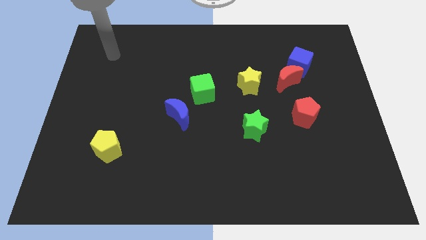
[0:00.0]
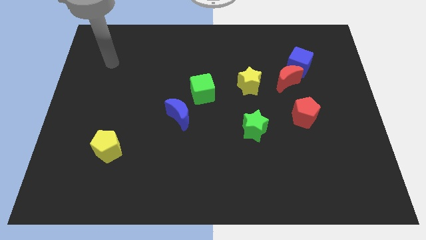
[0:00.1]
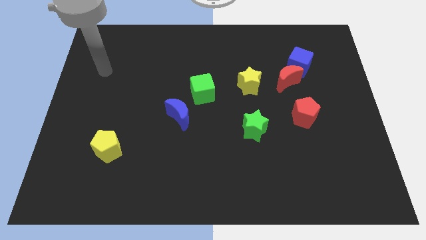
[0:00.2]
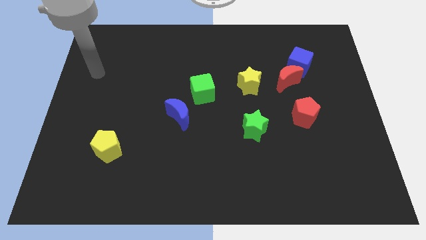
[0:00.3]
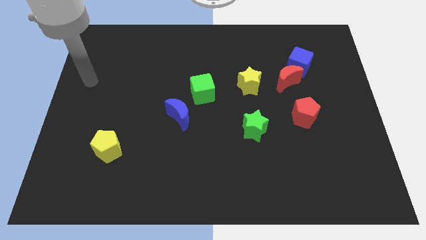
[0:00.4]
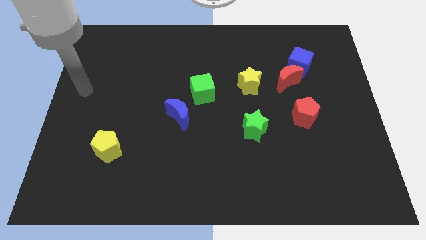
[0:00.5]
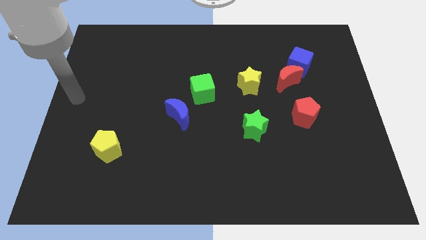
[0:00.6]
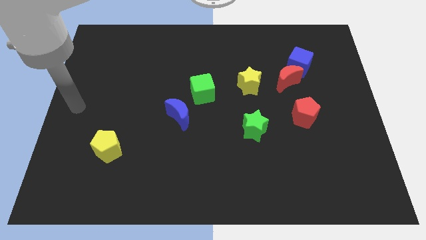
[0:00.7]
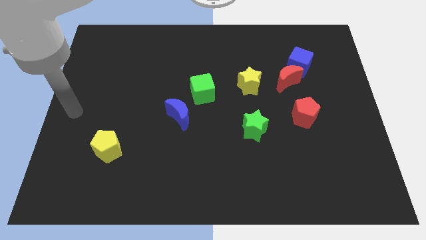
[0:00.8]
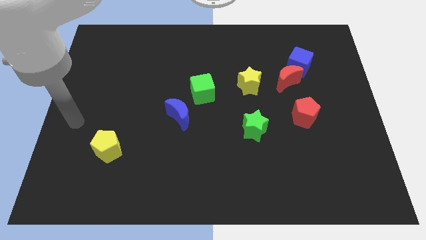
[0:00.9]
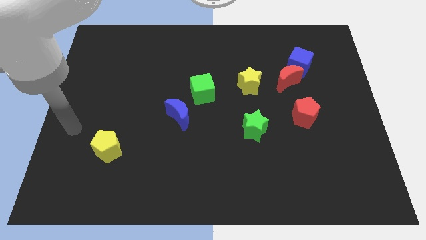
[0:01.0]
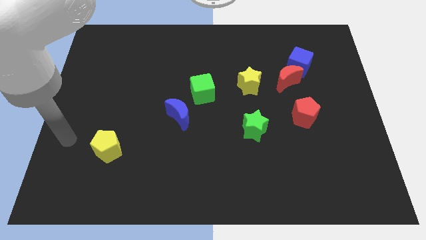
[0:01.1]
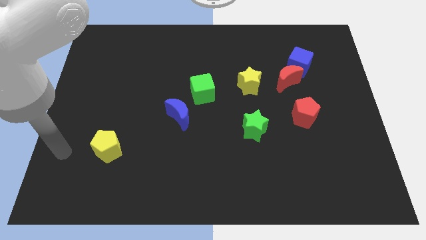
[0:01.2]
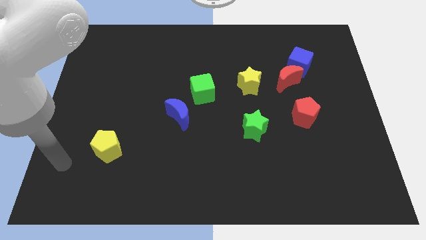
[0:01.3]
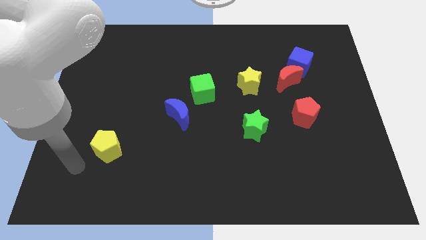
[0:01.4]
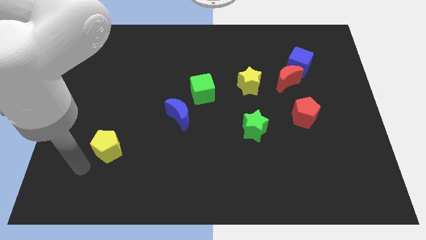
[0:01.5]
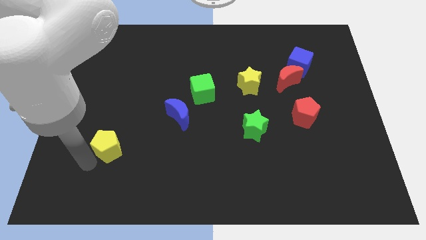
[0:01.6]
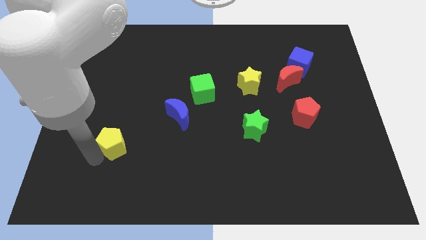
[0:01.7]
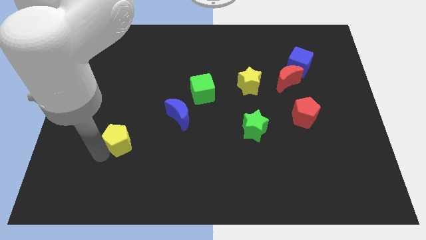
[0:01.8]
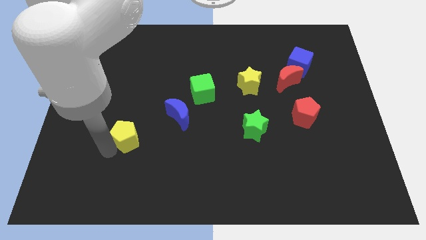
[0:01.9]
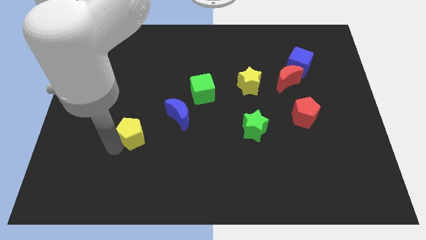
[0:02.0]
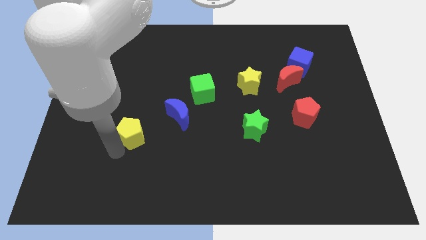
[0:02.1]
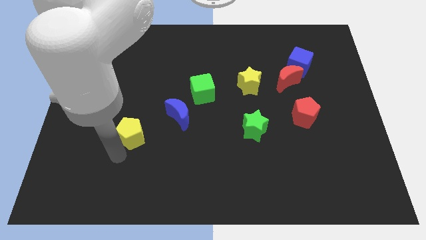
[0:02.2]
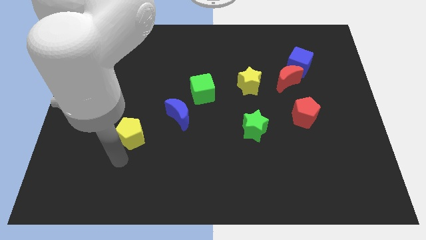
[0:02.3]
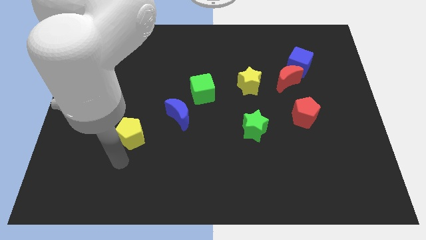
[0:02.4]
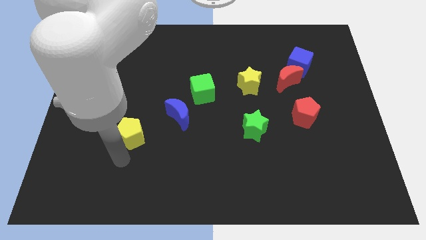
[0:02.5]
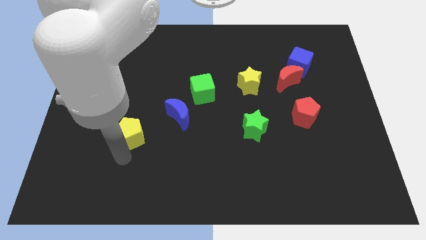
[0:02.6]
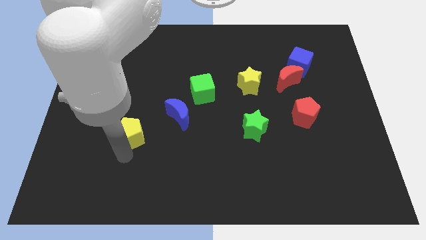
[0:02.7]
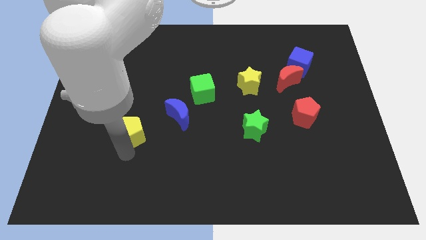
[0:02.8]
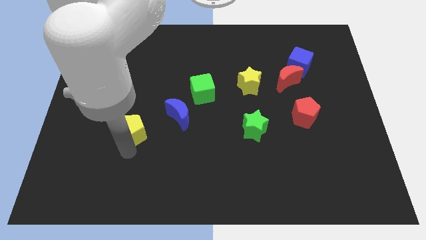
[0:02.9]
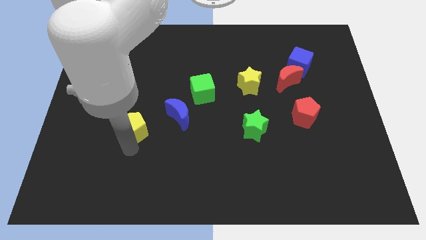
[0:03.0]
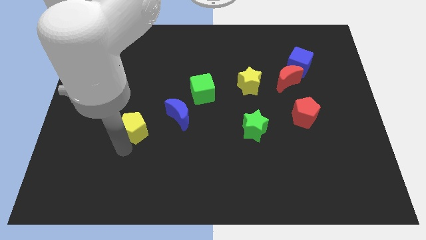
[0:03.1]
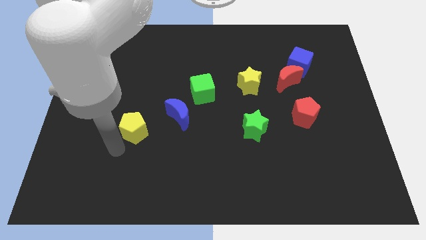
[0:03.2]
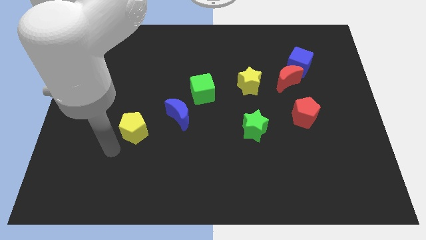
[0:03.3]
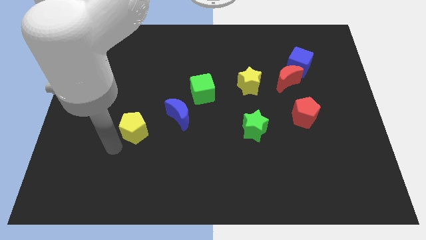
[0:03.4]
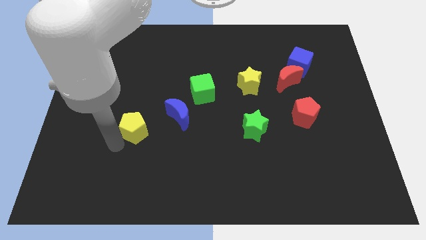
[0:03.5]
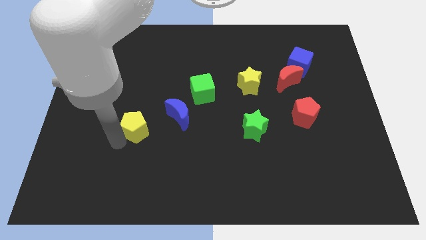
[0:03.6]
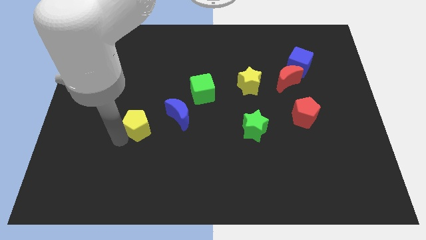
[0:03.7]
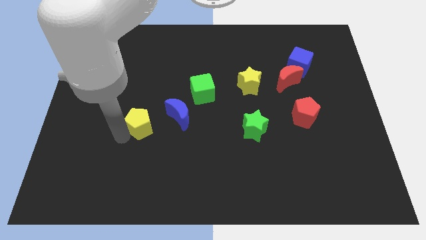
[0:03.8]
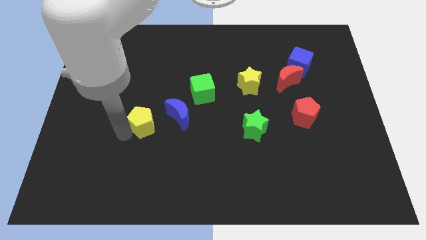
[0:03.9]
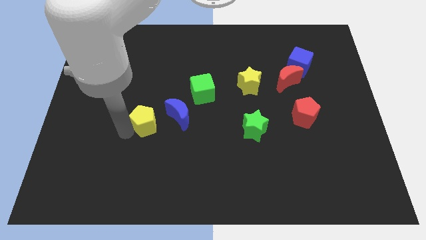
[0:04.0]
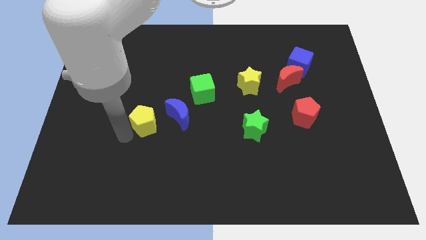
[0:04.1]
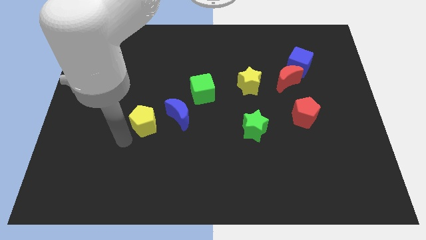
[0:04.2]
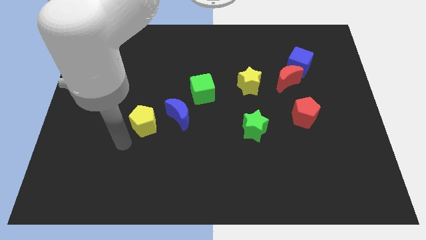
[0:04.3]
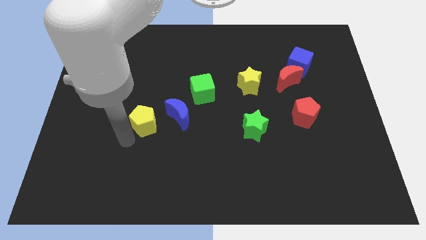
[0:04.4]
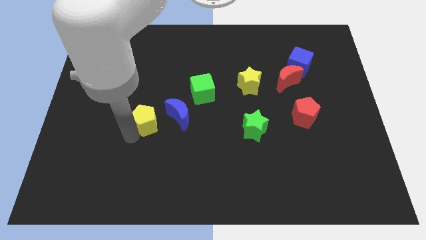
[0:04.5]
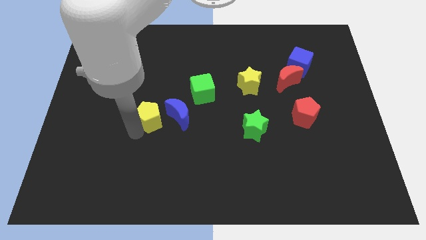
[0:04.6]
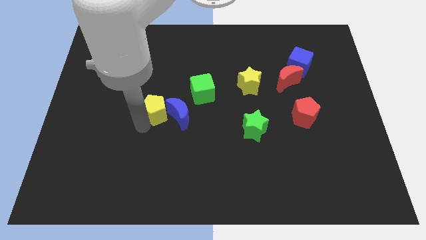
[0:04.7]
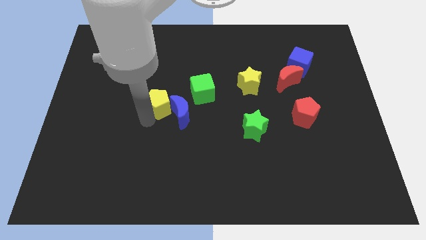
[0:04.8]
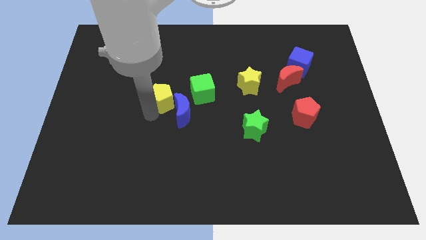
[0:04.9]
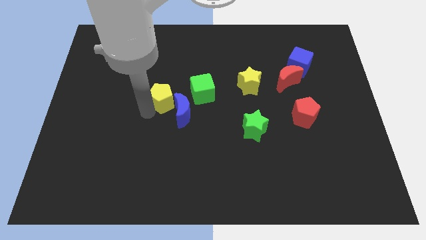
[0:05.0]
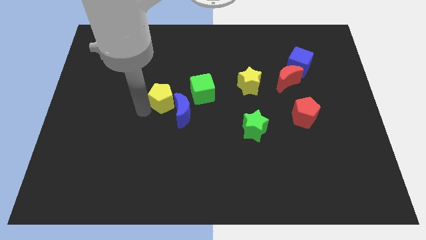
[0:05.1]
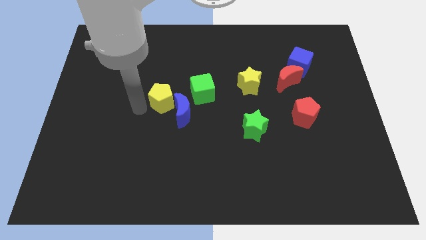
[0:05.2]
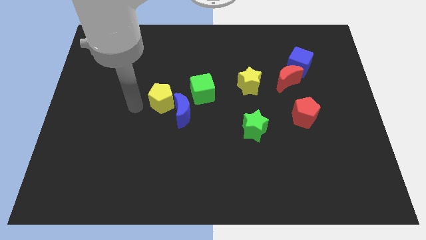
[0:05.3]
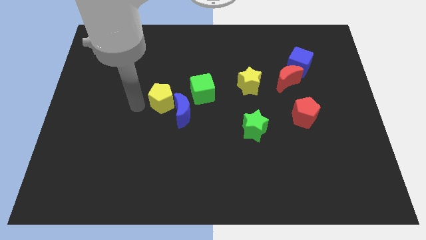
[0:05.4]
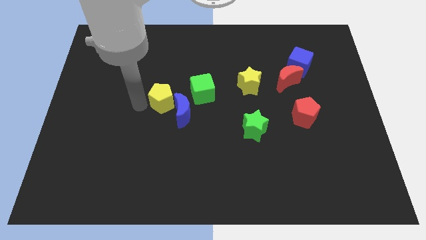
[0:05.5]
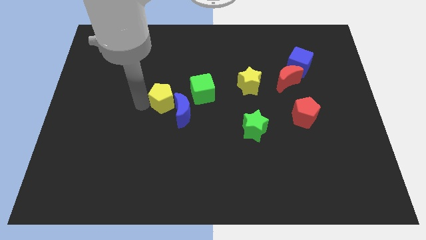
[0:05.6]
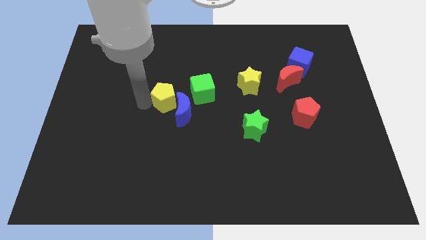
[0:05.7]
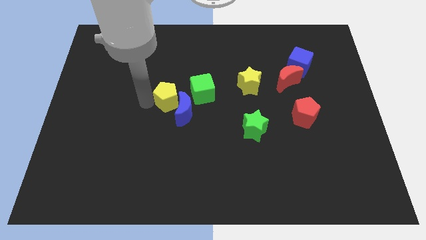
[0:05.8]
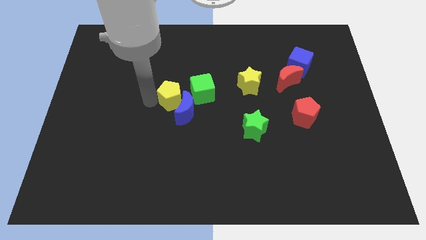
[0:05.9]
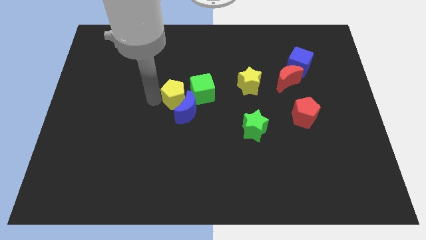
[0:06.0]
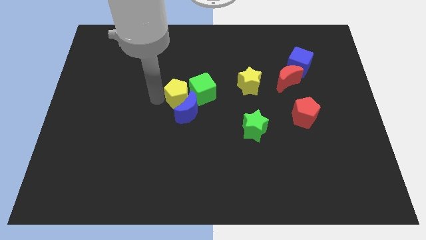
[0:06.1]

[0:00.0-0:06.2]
push the yellow pentagon close to the green cube

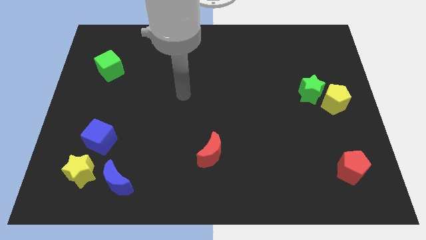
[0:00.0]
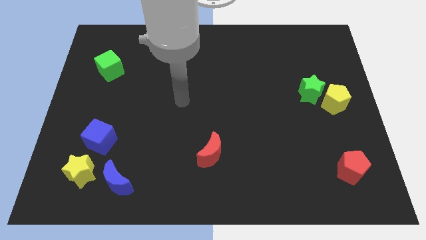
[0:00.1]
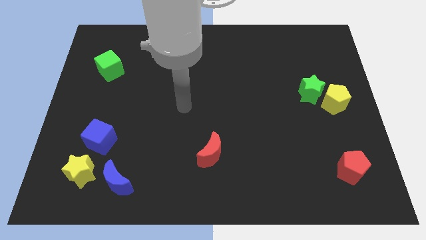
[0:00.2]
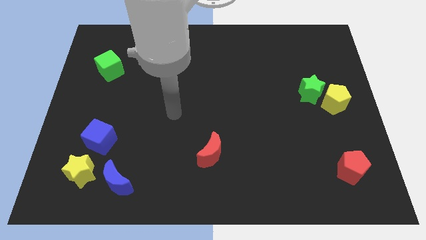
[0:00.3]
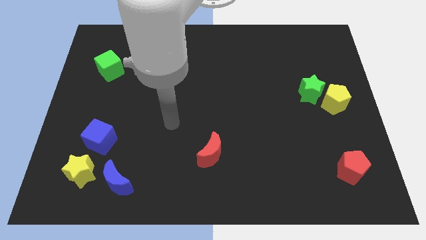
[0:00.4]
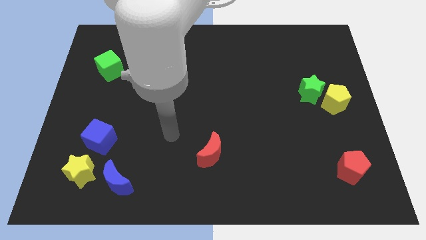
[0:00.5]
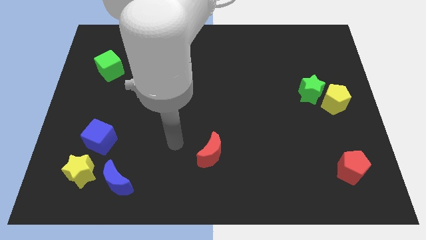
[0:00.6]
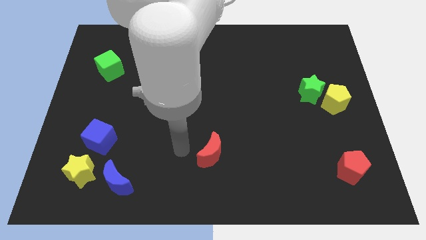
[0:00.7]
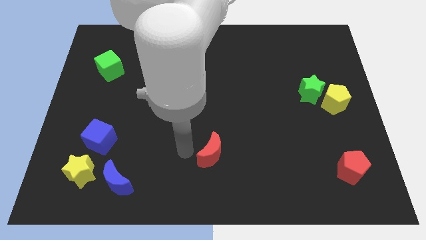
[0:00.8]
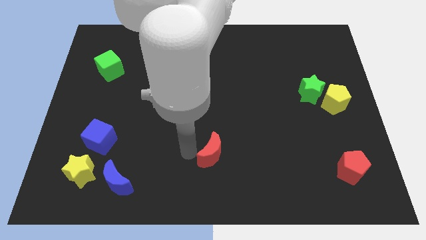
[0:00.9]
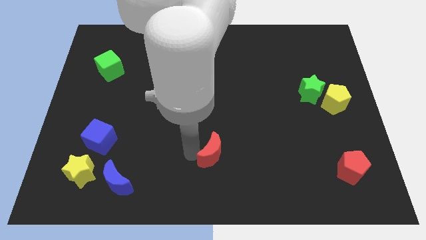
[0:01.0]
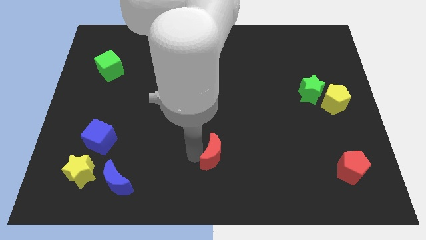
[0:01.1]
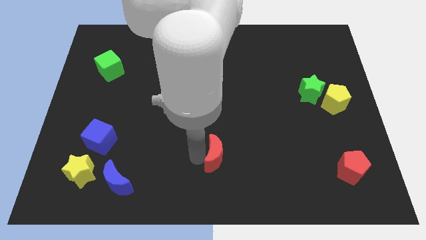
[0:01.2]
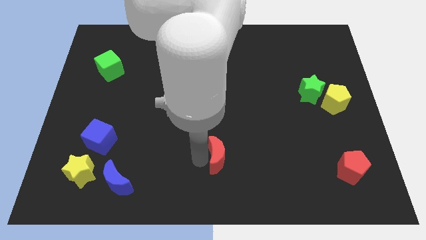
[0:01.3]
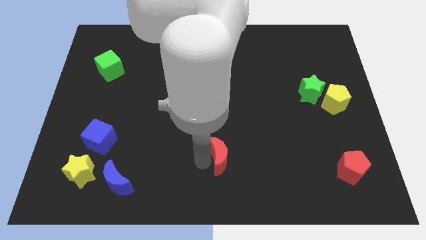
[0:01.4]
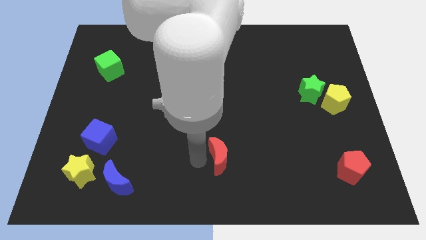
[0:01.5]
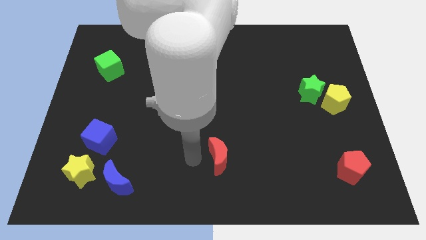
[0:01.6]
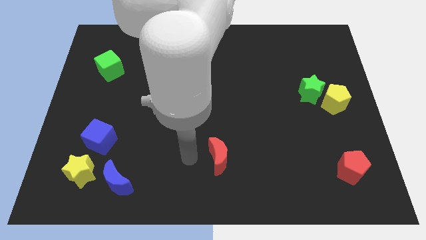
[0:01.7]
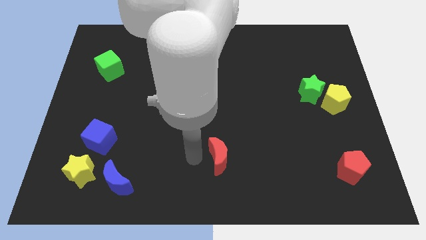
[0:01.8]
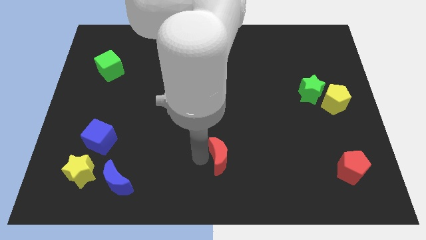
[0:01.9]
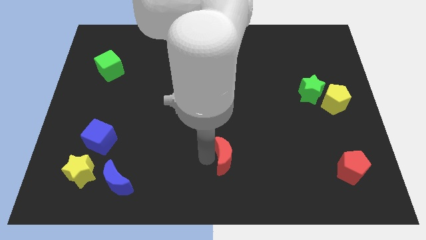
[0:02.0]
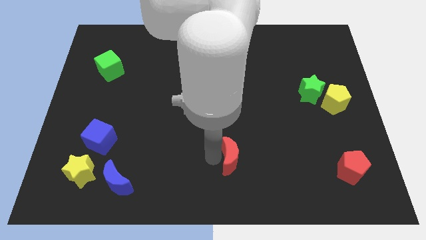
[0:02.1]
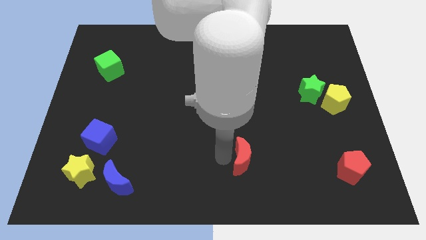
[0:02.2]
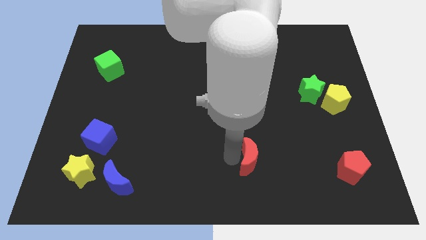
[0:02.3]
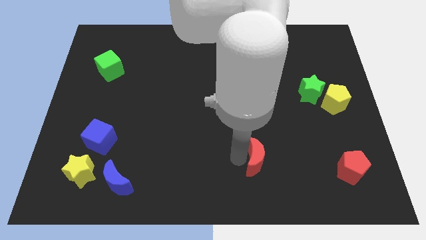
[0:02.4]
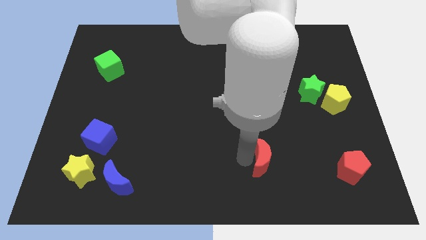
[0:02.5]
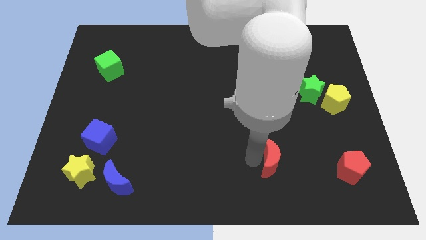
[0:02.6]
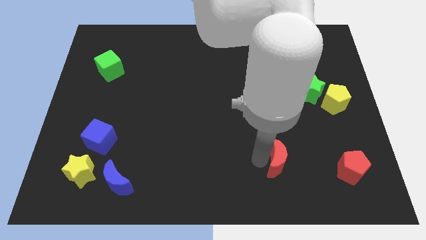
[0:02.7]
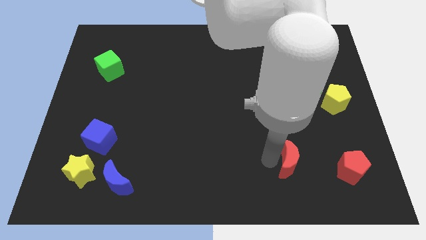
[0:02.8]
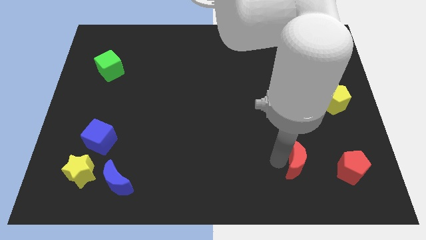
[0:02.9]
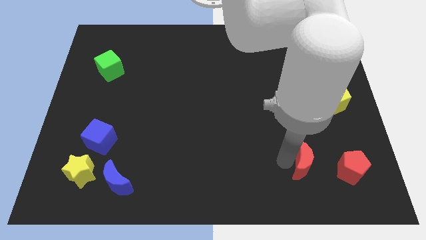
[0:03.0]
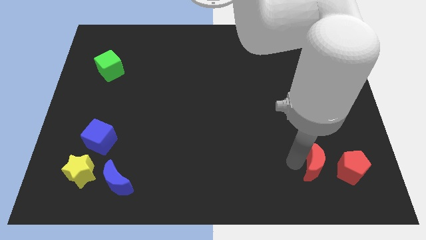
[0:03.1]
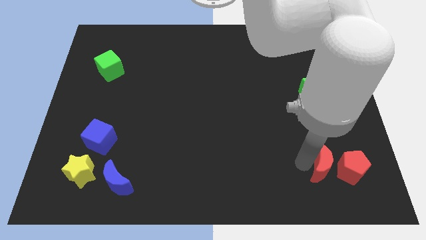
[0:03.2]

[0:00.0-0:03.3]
move the red moon next to the red pentagon
